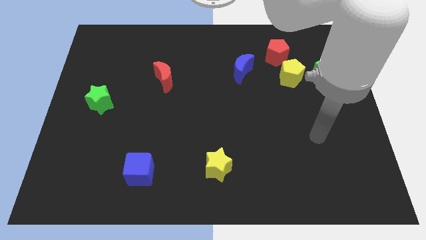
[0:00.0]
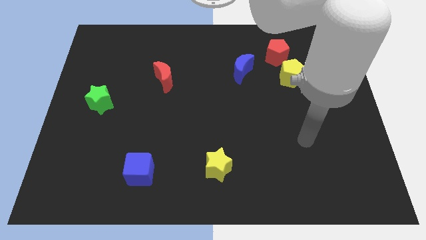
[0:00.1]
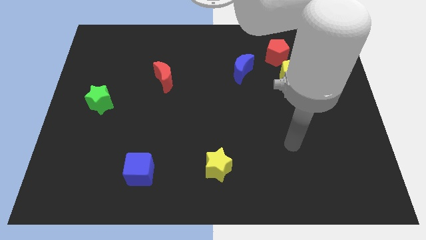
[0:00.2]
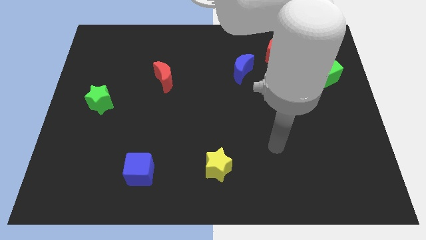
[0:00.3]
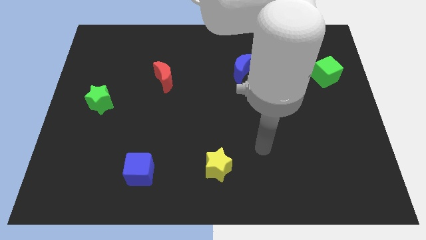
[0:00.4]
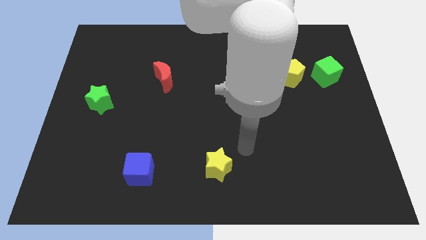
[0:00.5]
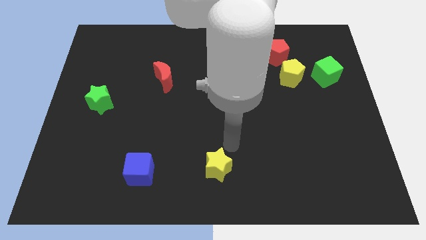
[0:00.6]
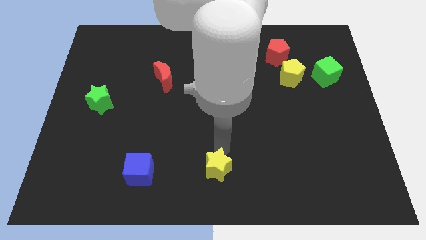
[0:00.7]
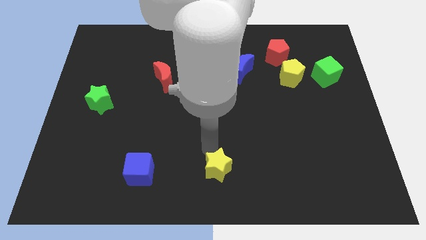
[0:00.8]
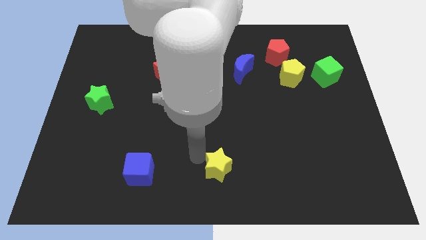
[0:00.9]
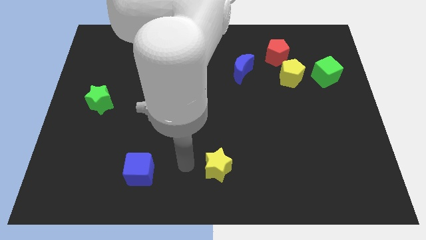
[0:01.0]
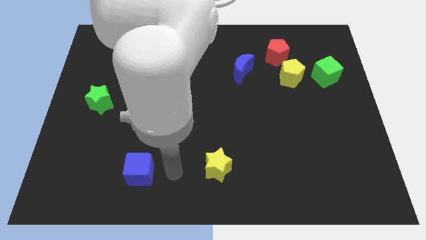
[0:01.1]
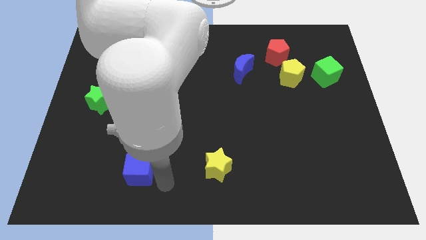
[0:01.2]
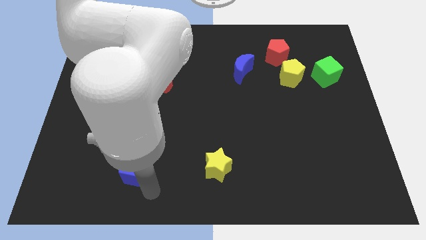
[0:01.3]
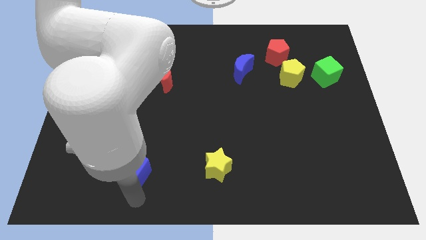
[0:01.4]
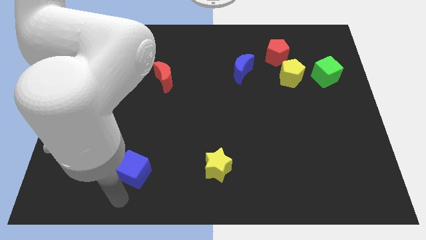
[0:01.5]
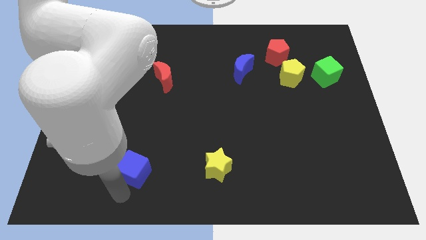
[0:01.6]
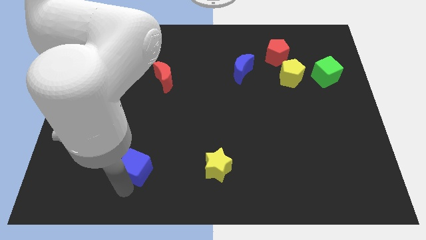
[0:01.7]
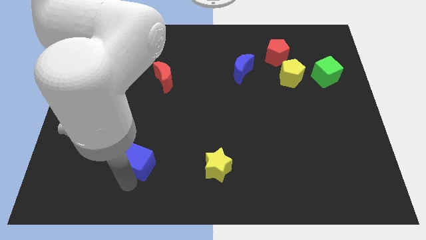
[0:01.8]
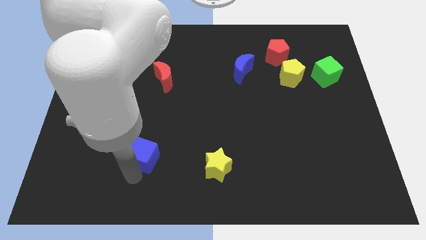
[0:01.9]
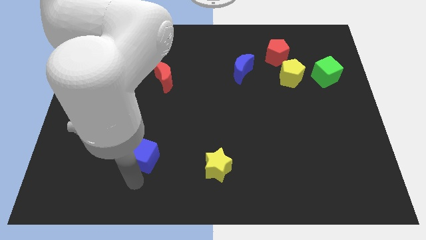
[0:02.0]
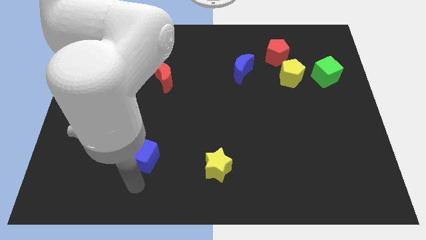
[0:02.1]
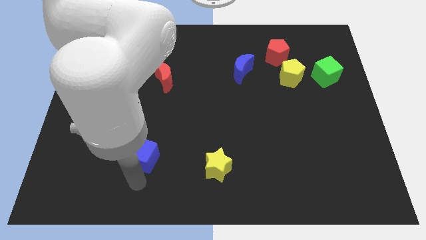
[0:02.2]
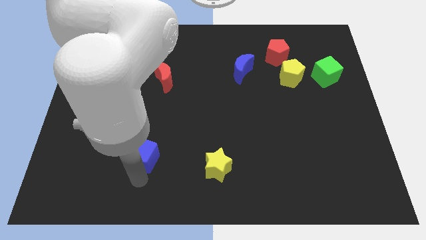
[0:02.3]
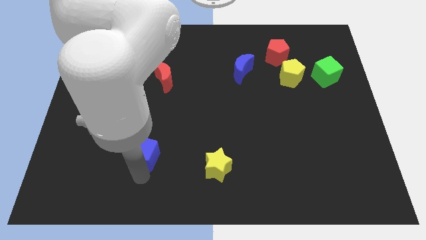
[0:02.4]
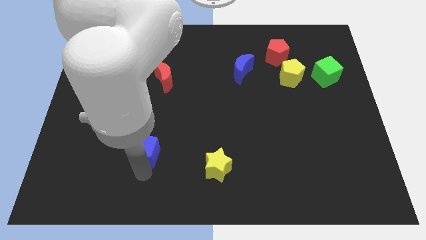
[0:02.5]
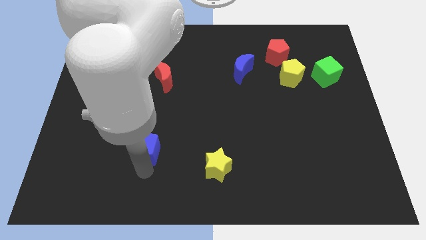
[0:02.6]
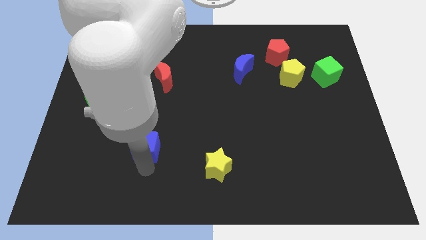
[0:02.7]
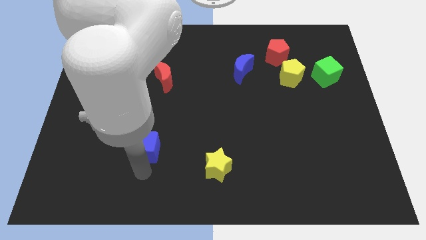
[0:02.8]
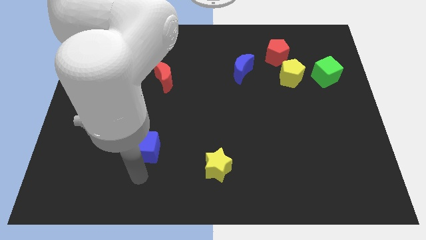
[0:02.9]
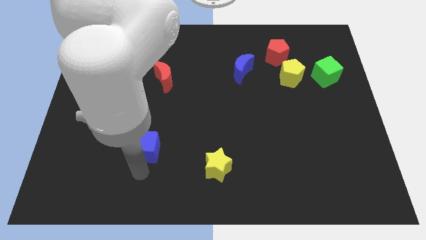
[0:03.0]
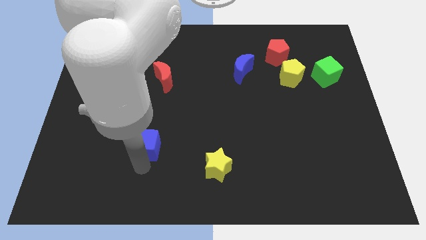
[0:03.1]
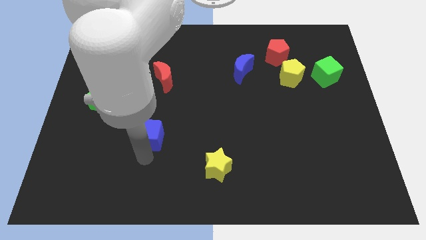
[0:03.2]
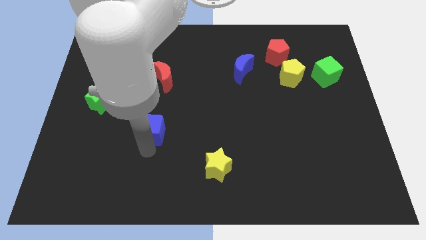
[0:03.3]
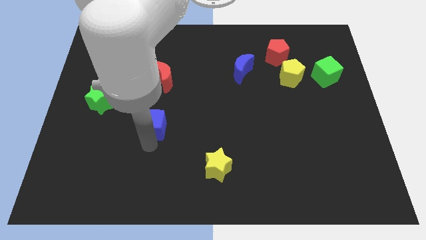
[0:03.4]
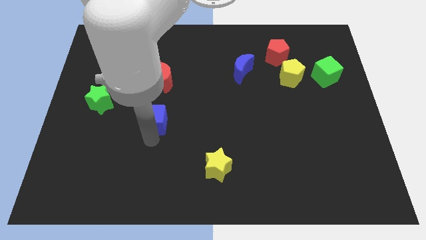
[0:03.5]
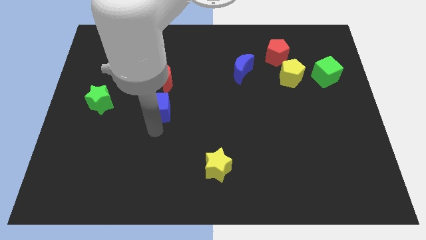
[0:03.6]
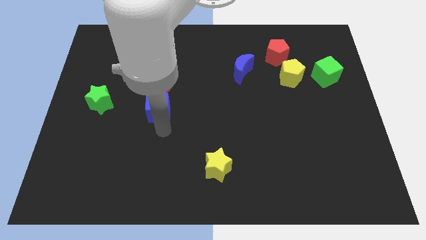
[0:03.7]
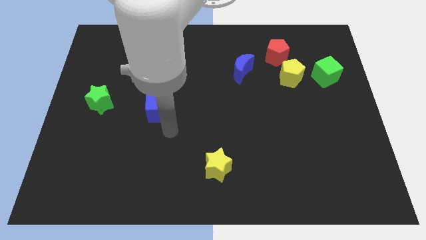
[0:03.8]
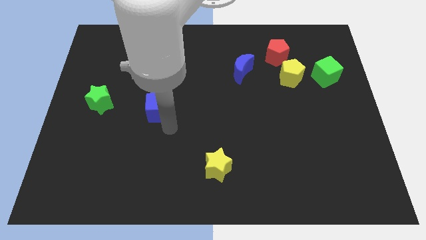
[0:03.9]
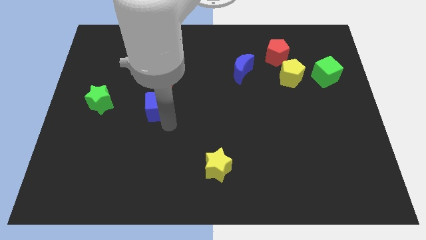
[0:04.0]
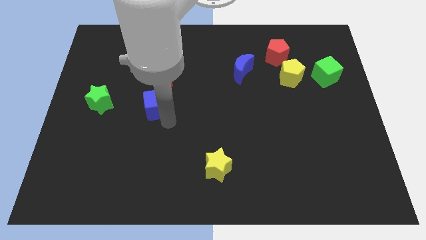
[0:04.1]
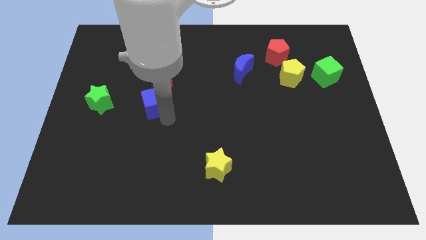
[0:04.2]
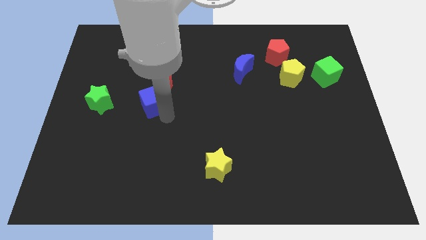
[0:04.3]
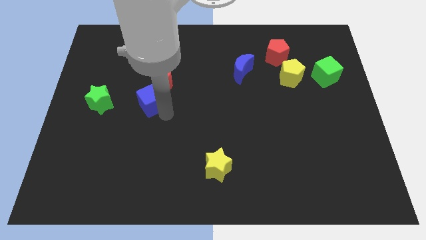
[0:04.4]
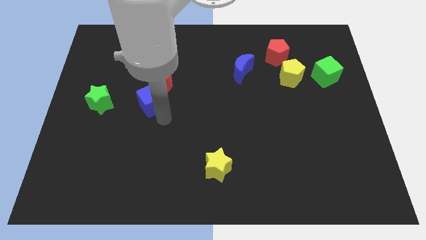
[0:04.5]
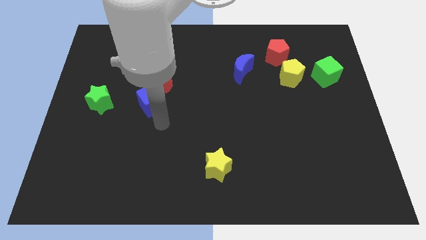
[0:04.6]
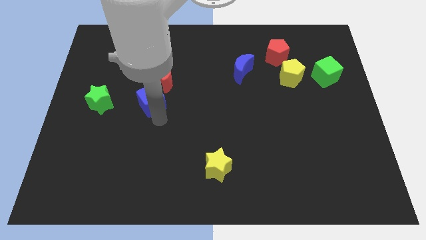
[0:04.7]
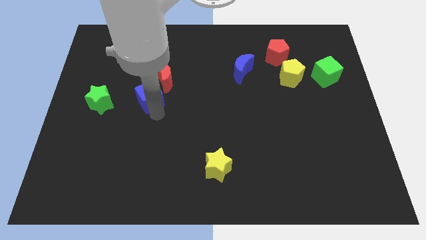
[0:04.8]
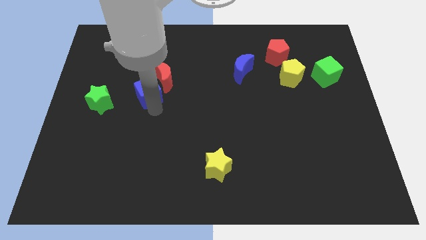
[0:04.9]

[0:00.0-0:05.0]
move the blue cube up

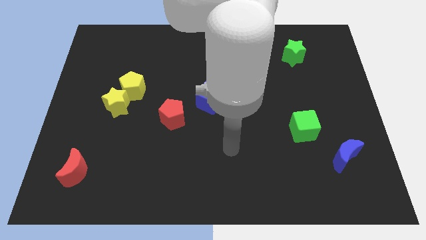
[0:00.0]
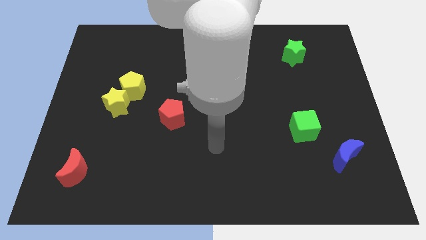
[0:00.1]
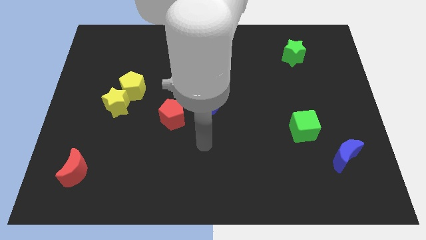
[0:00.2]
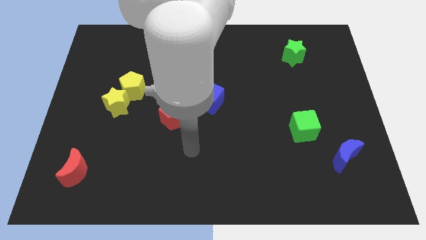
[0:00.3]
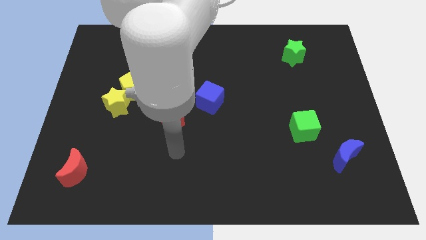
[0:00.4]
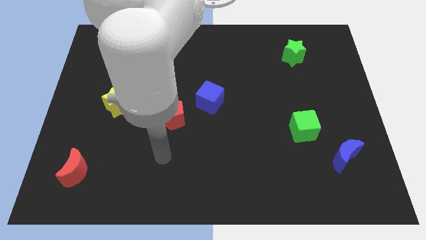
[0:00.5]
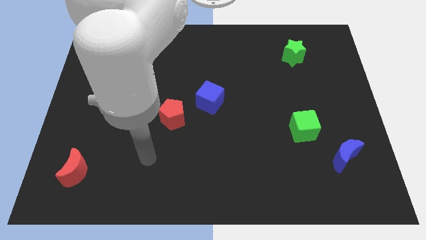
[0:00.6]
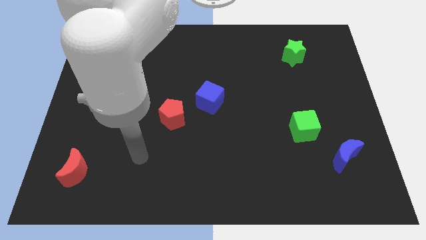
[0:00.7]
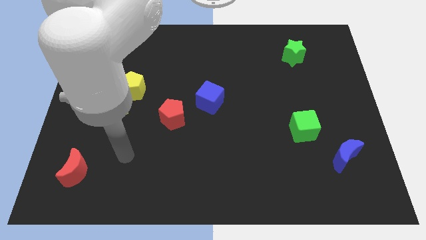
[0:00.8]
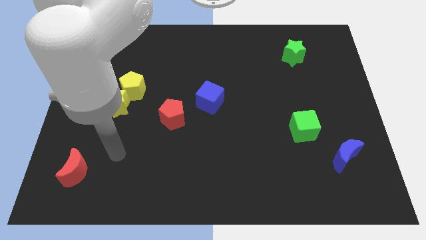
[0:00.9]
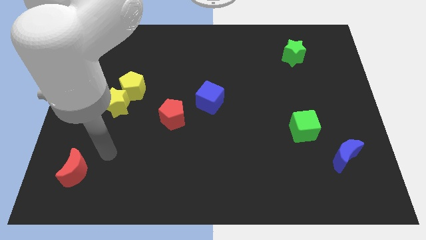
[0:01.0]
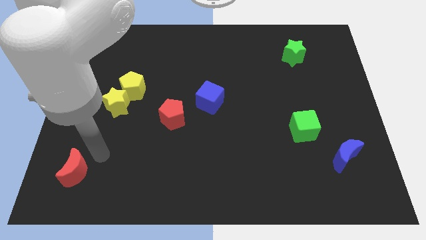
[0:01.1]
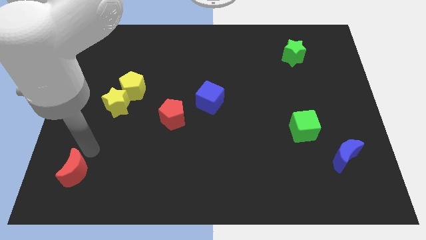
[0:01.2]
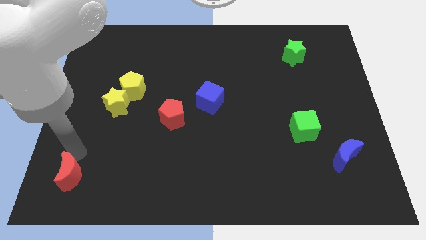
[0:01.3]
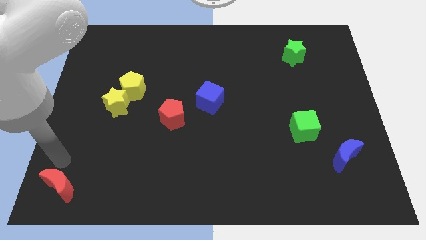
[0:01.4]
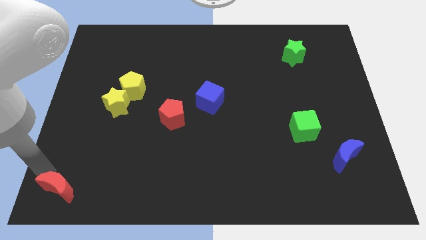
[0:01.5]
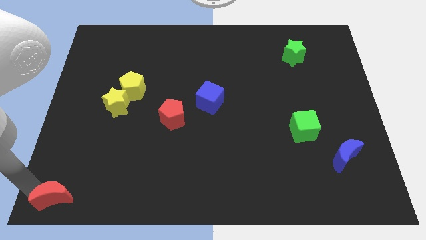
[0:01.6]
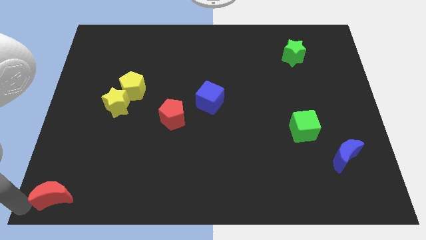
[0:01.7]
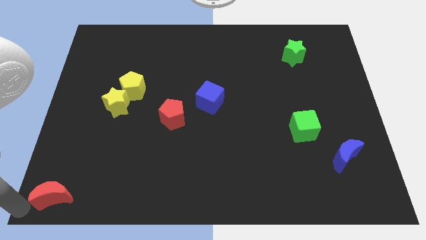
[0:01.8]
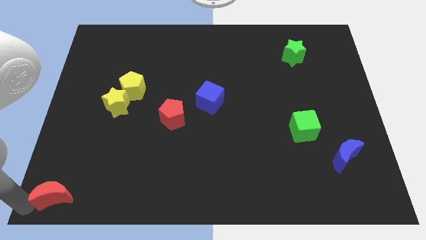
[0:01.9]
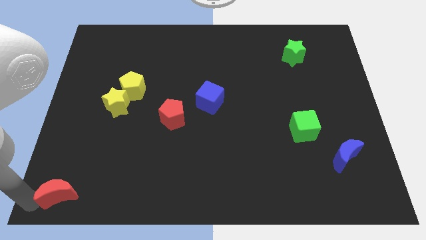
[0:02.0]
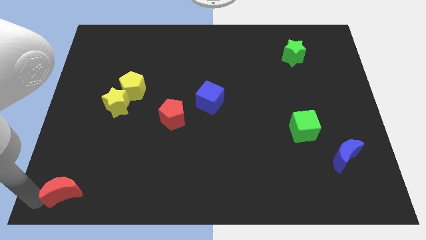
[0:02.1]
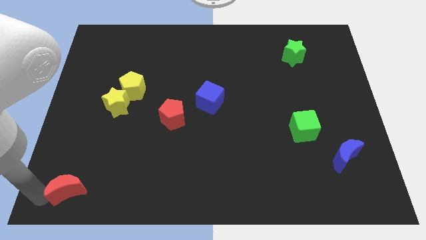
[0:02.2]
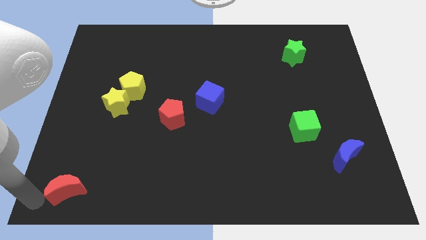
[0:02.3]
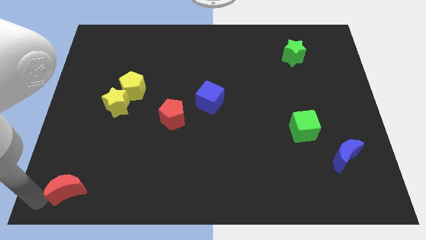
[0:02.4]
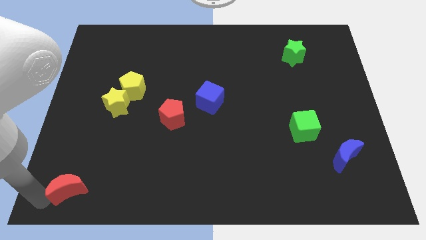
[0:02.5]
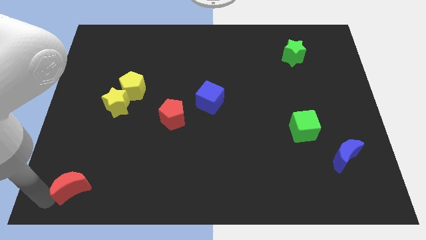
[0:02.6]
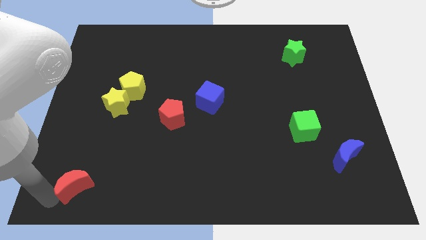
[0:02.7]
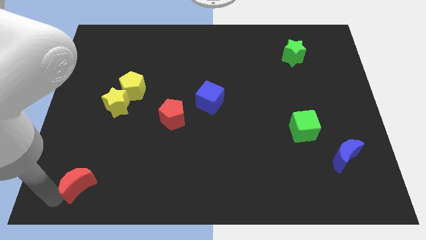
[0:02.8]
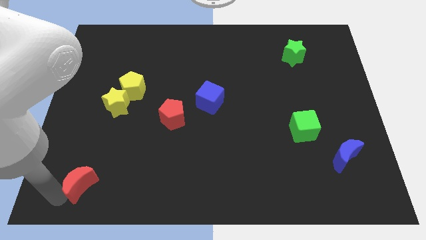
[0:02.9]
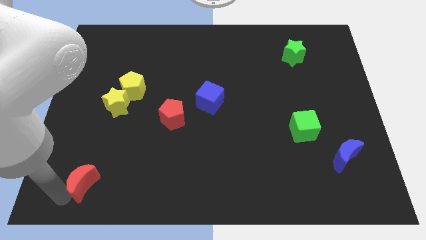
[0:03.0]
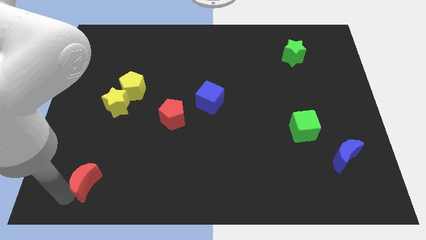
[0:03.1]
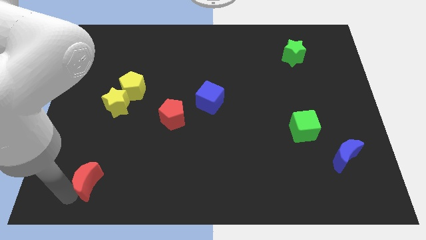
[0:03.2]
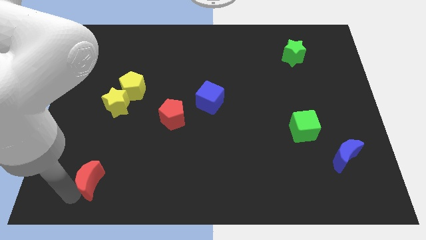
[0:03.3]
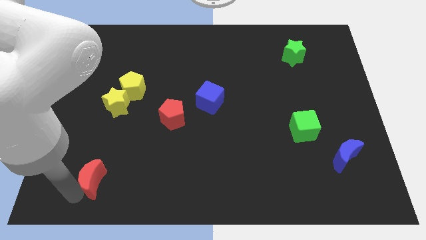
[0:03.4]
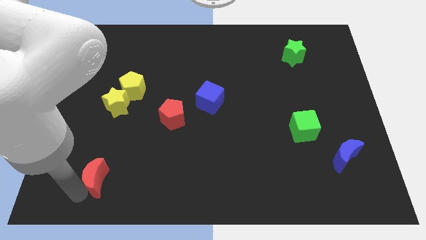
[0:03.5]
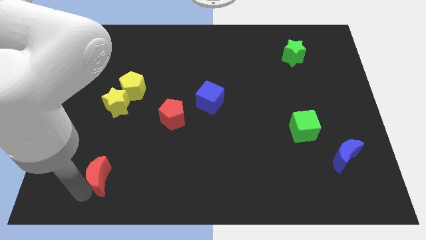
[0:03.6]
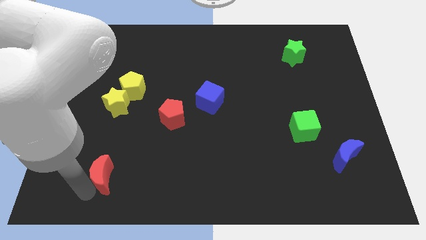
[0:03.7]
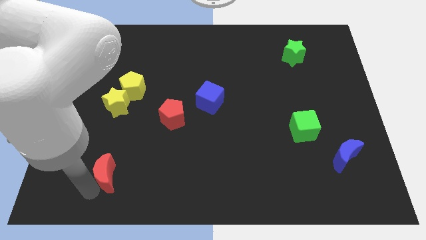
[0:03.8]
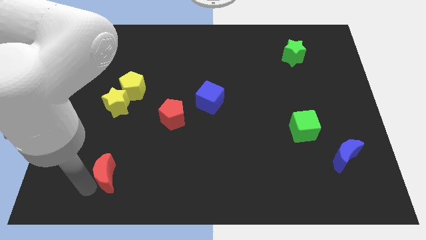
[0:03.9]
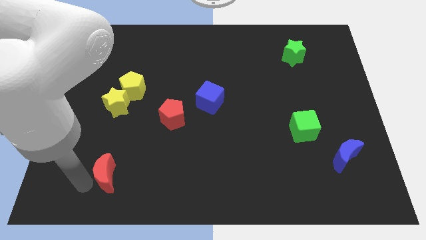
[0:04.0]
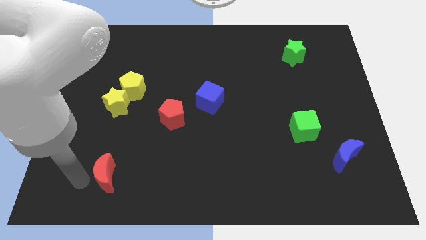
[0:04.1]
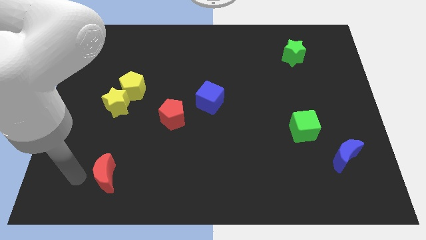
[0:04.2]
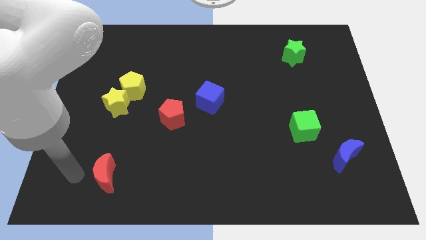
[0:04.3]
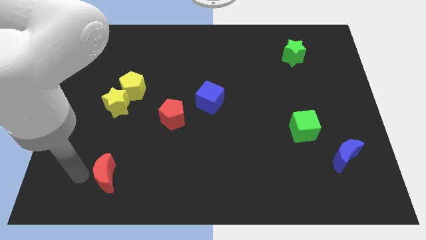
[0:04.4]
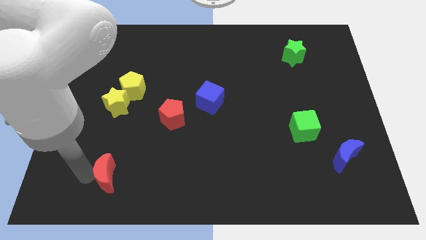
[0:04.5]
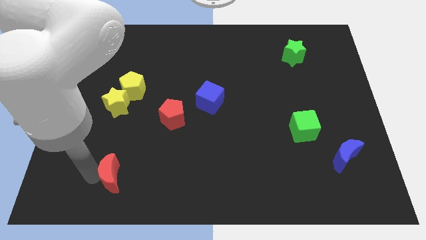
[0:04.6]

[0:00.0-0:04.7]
push the red moon to the right slightly
